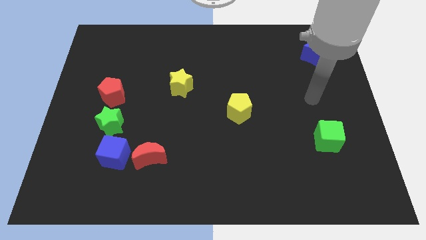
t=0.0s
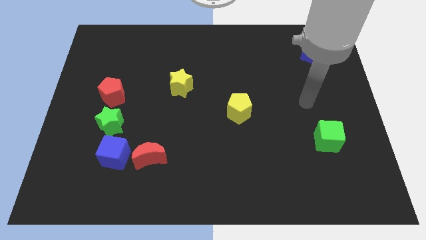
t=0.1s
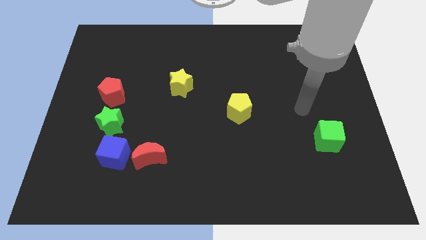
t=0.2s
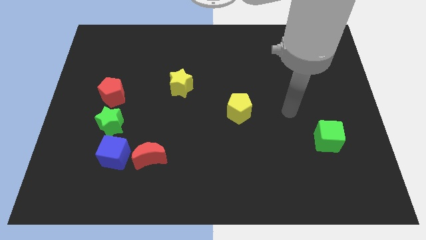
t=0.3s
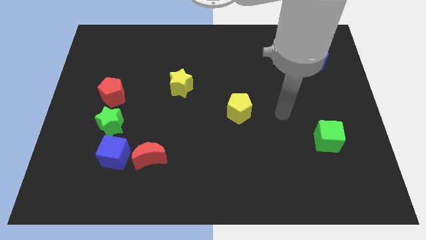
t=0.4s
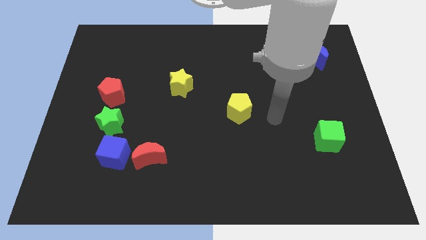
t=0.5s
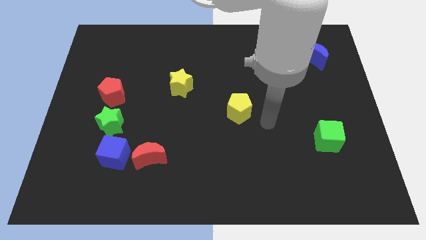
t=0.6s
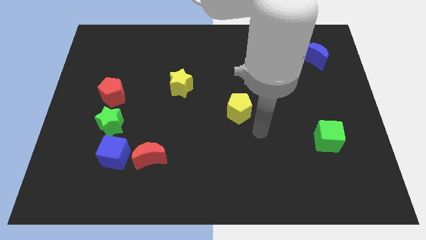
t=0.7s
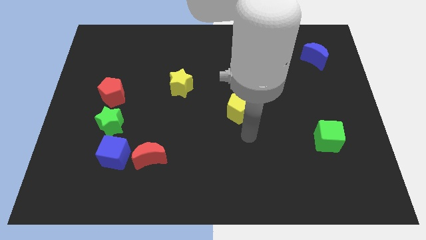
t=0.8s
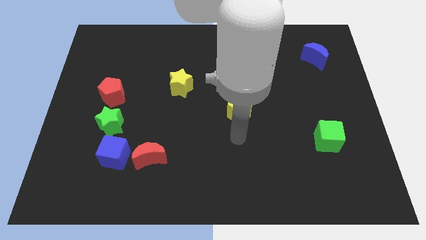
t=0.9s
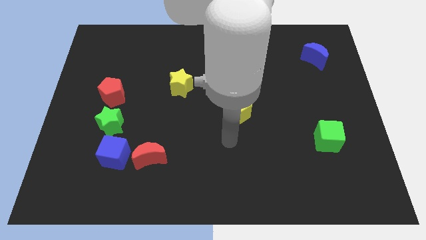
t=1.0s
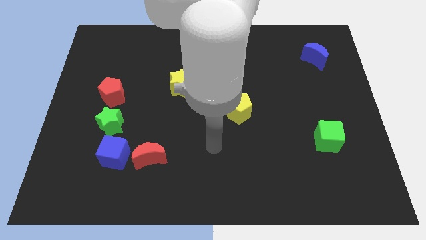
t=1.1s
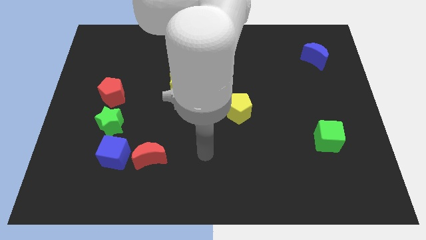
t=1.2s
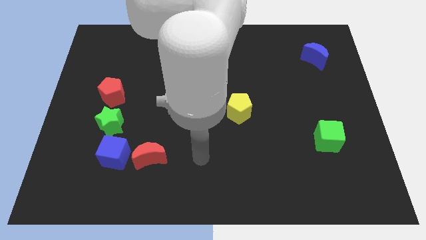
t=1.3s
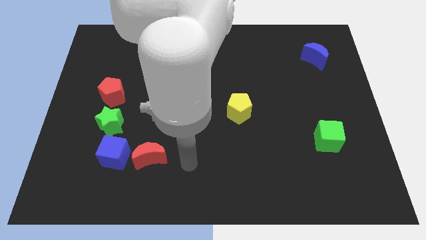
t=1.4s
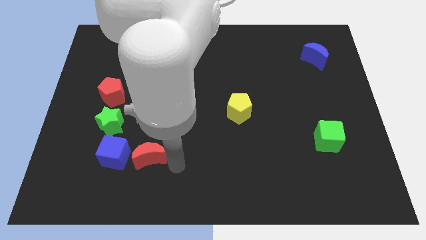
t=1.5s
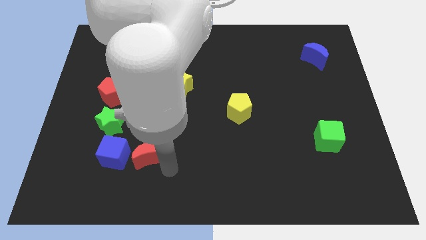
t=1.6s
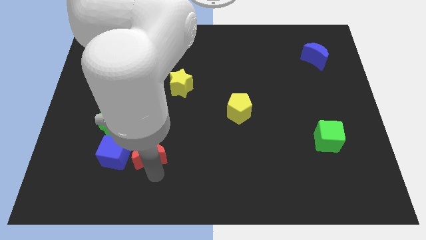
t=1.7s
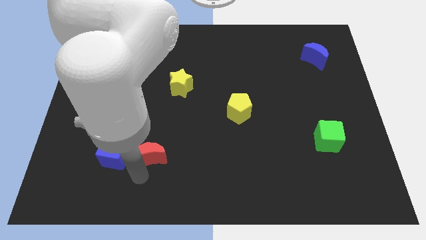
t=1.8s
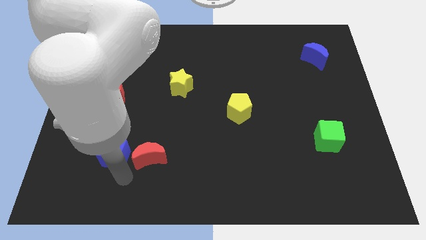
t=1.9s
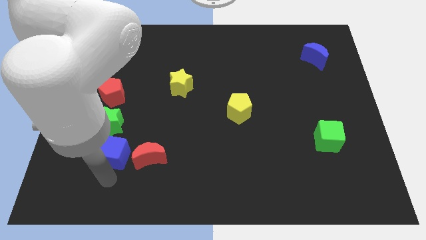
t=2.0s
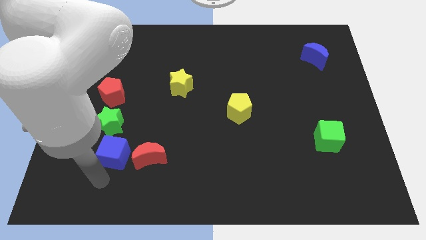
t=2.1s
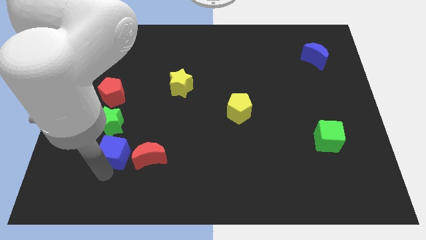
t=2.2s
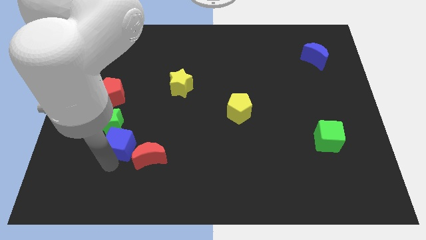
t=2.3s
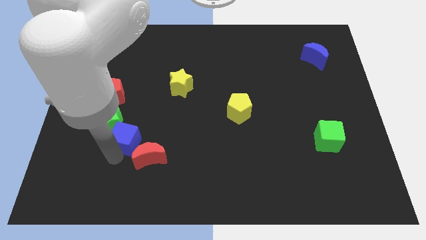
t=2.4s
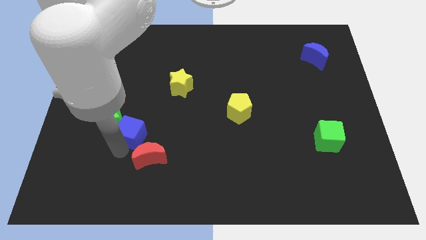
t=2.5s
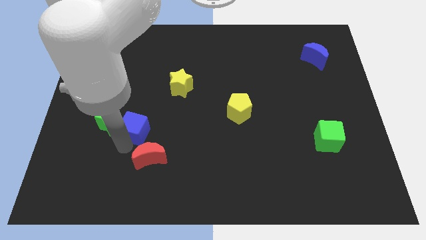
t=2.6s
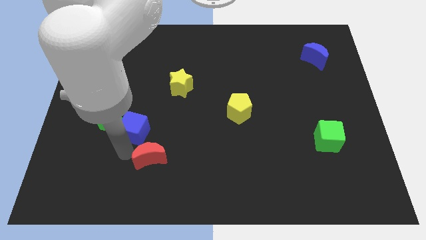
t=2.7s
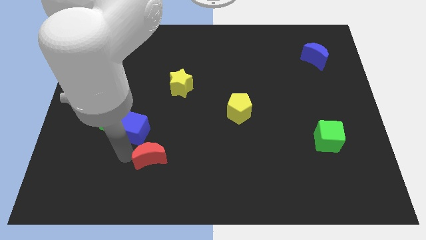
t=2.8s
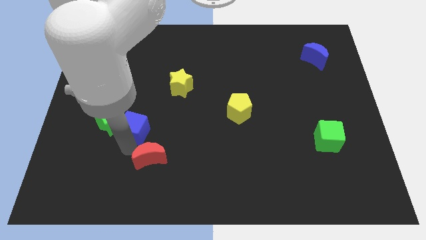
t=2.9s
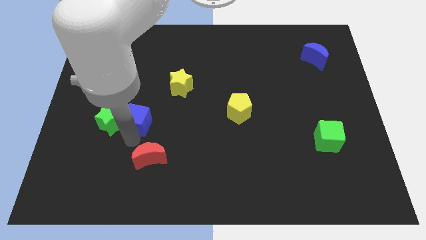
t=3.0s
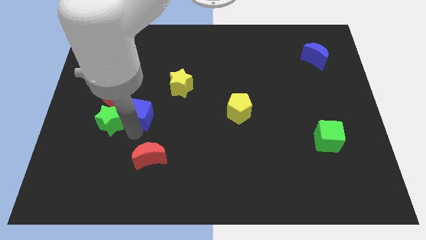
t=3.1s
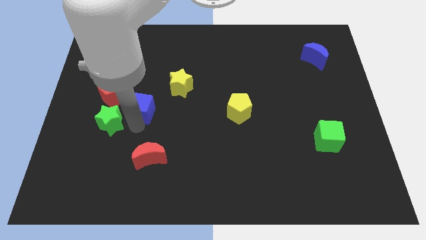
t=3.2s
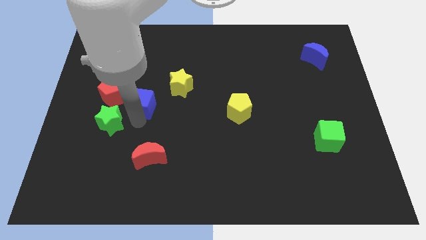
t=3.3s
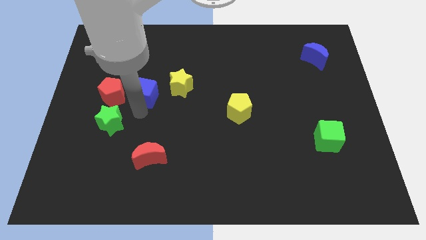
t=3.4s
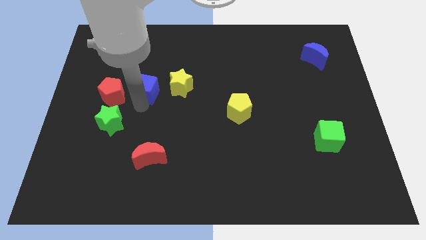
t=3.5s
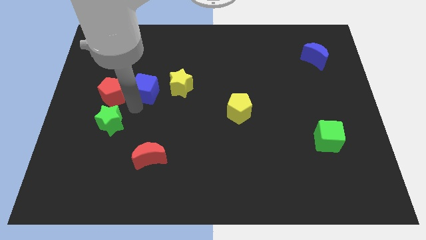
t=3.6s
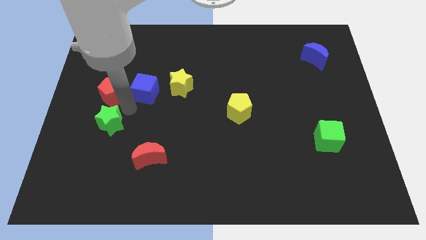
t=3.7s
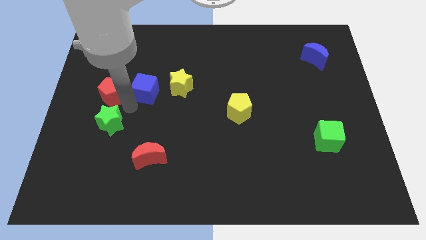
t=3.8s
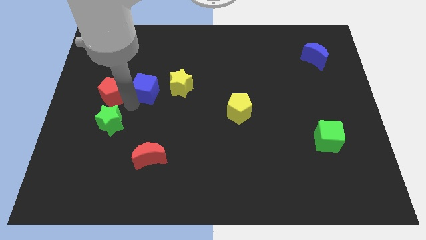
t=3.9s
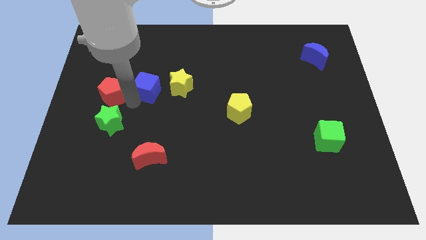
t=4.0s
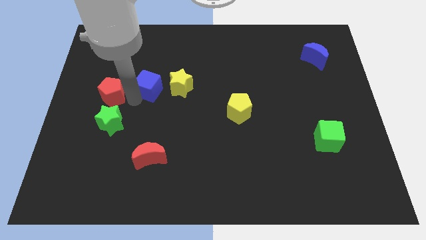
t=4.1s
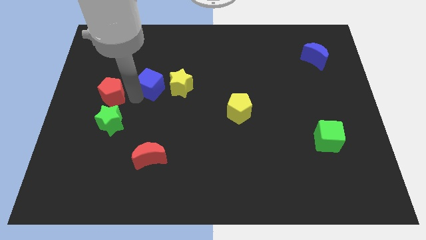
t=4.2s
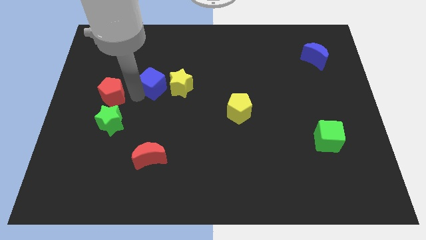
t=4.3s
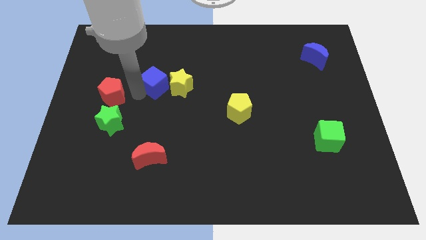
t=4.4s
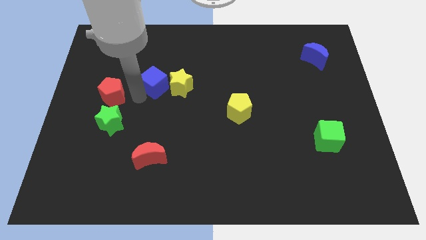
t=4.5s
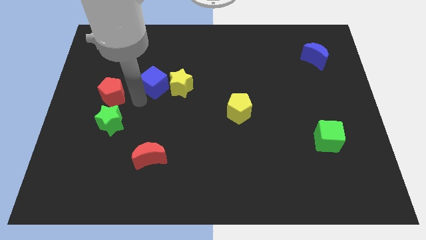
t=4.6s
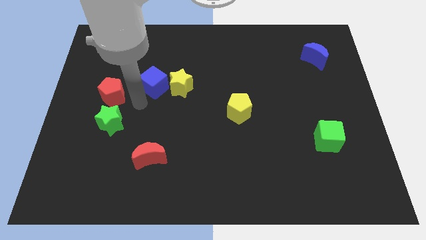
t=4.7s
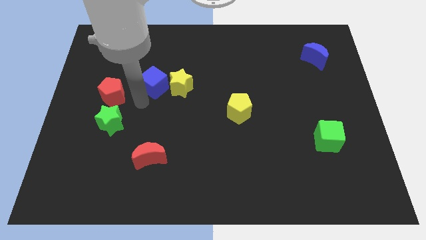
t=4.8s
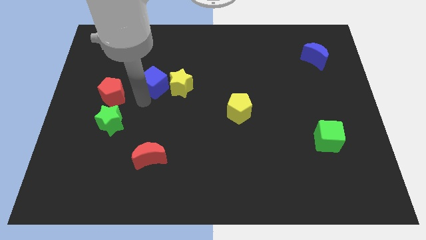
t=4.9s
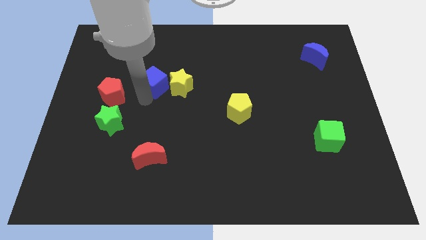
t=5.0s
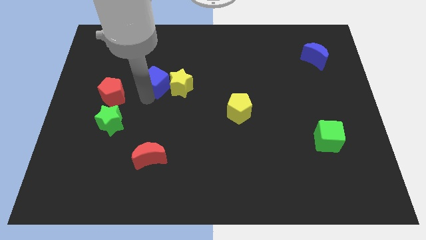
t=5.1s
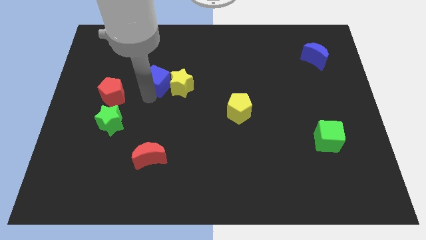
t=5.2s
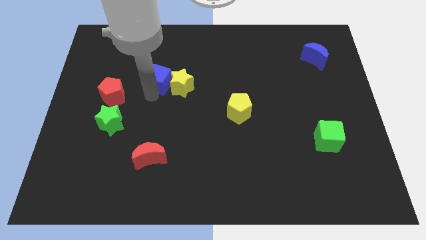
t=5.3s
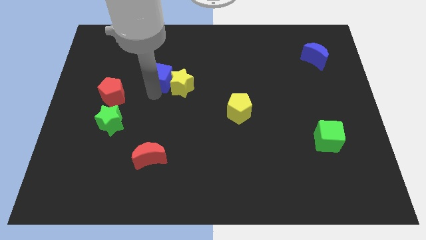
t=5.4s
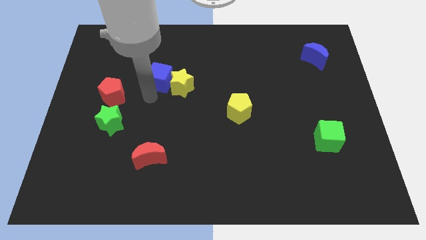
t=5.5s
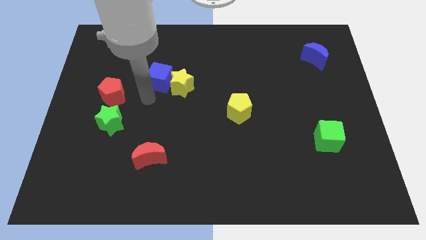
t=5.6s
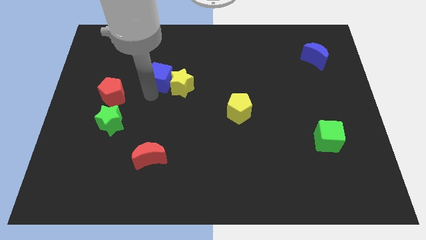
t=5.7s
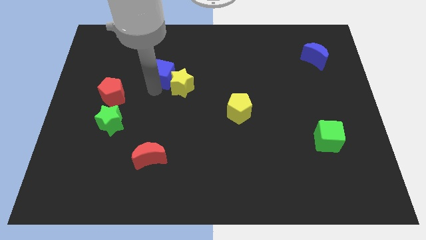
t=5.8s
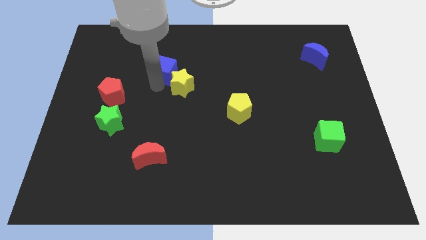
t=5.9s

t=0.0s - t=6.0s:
push the blue cube to the top side of the yellow star
